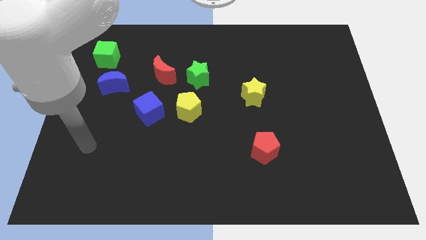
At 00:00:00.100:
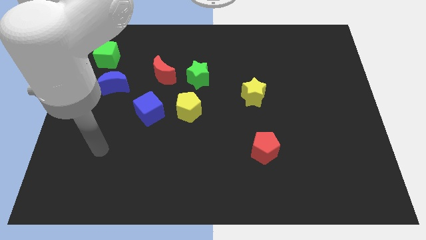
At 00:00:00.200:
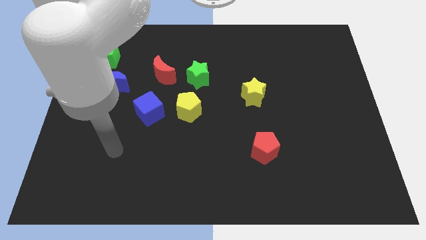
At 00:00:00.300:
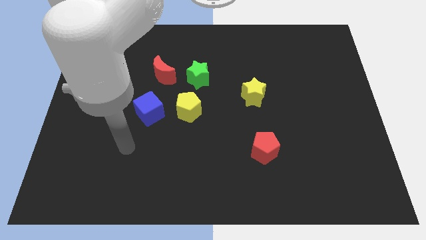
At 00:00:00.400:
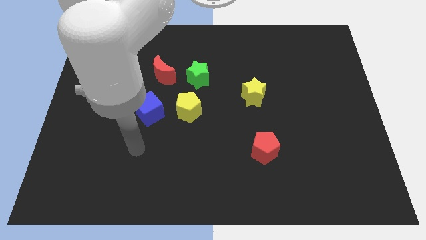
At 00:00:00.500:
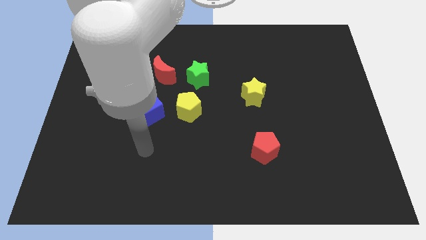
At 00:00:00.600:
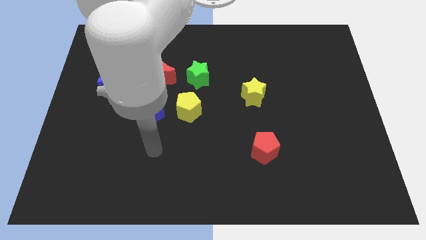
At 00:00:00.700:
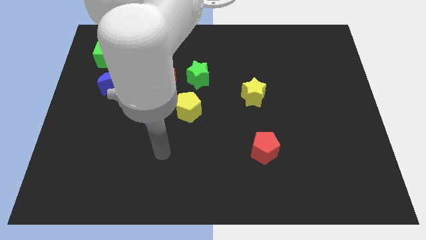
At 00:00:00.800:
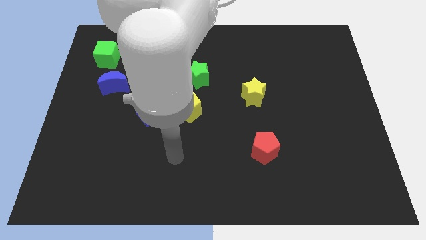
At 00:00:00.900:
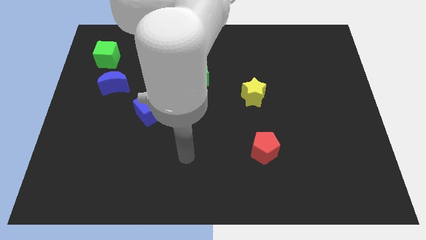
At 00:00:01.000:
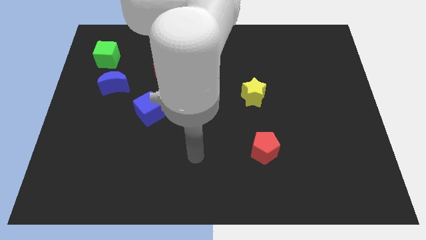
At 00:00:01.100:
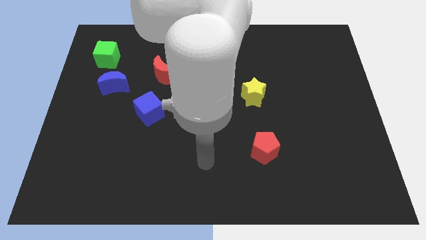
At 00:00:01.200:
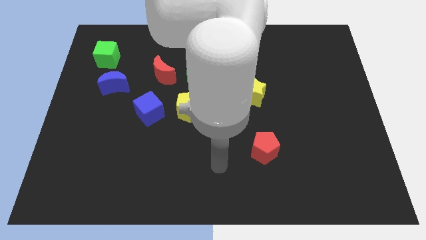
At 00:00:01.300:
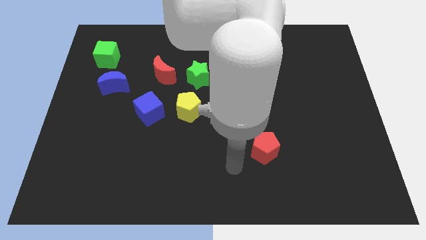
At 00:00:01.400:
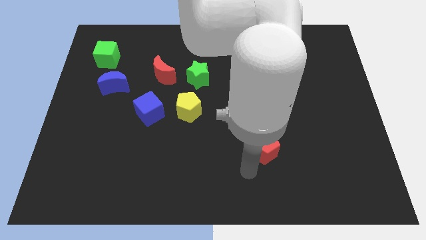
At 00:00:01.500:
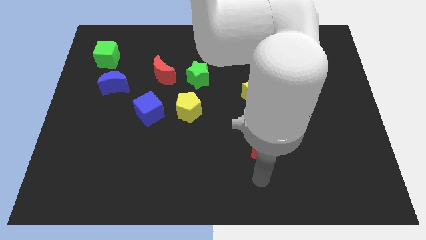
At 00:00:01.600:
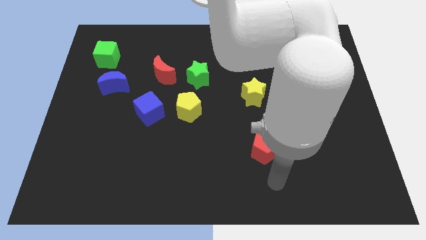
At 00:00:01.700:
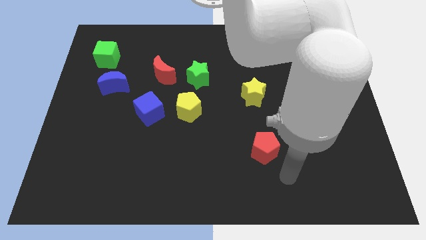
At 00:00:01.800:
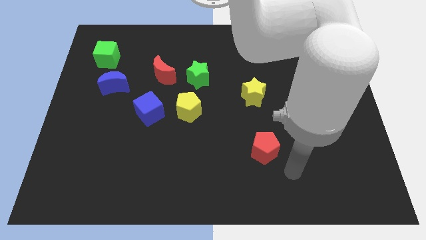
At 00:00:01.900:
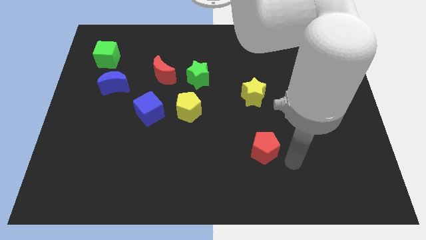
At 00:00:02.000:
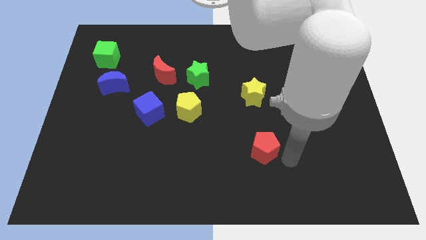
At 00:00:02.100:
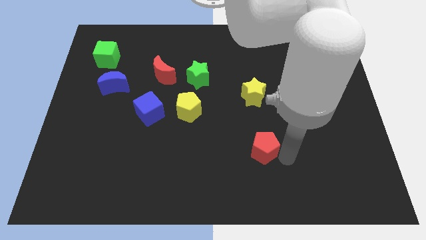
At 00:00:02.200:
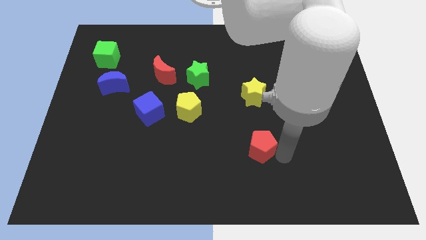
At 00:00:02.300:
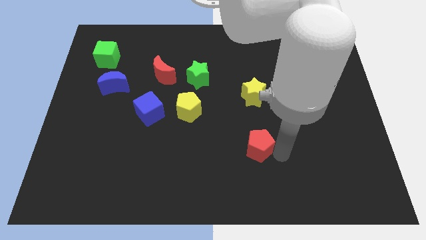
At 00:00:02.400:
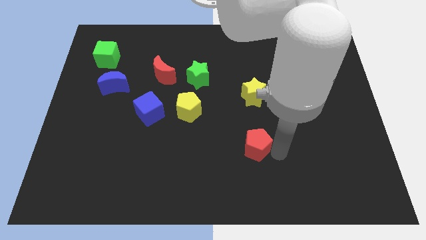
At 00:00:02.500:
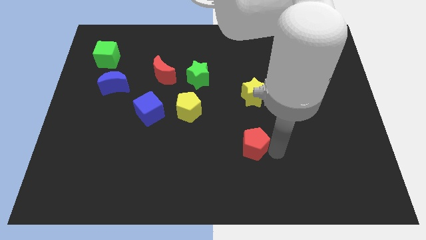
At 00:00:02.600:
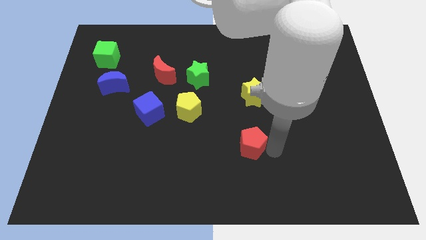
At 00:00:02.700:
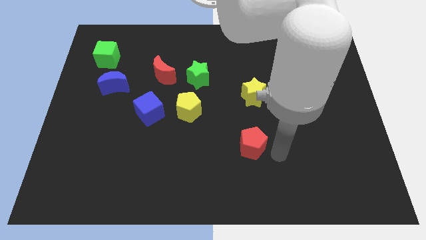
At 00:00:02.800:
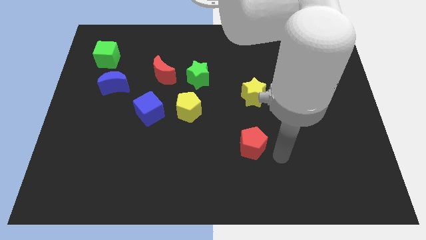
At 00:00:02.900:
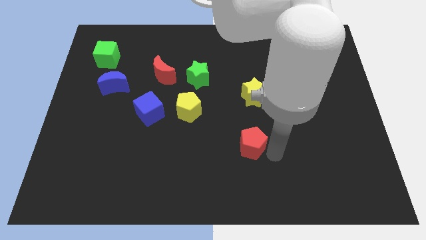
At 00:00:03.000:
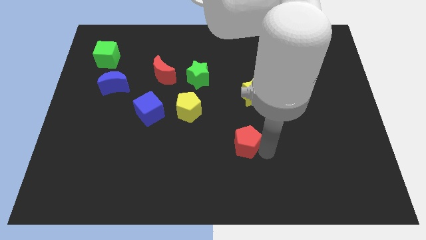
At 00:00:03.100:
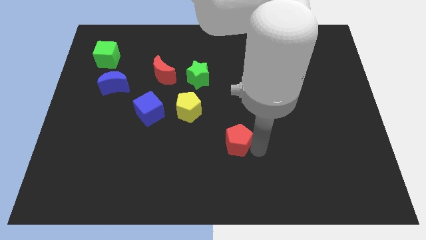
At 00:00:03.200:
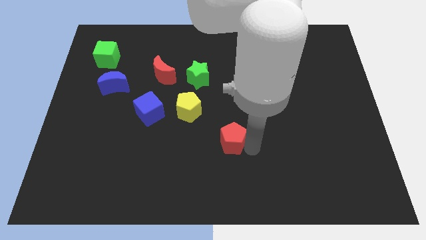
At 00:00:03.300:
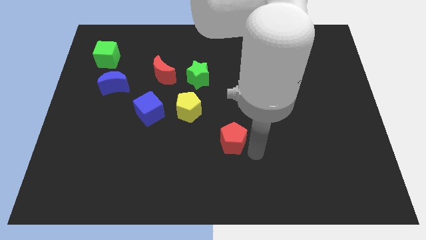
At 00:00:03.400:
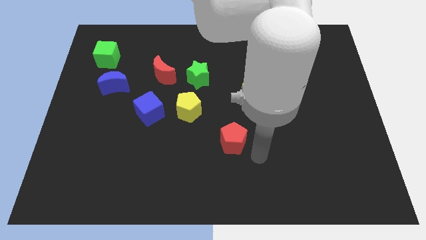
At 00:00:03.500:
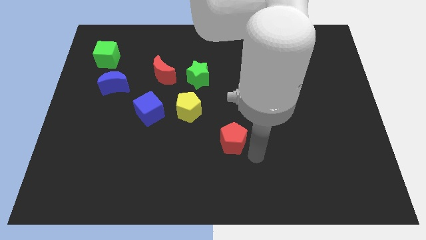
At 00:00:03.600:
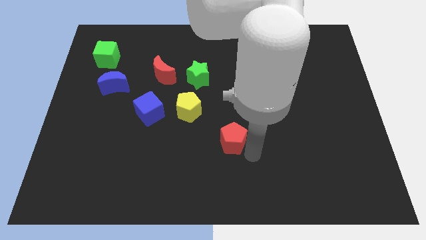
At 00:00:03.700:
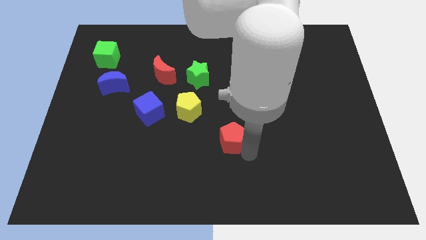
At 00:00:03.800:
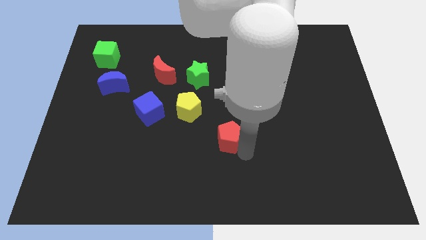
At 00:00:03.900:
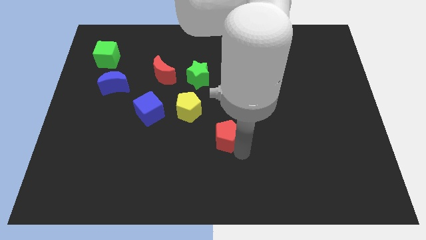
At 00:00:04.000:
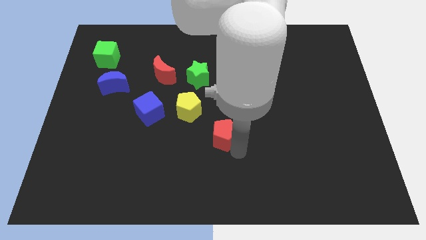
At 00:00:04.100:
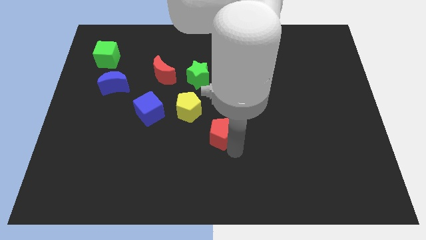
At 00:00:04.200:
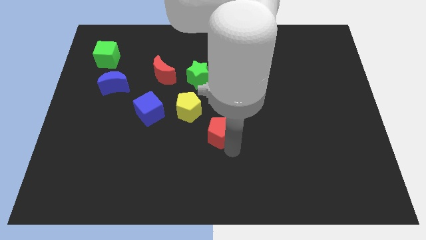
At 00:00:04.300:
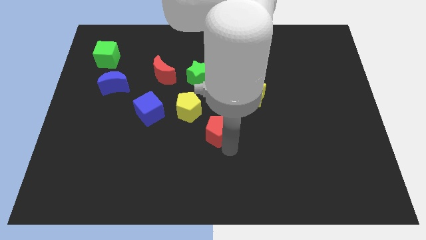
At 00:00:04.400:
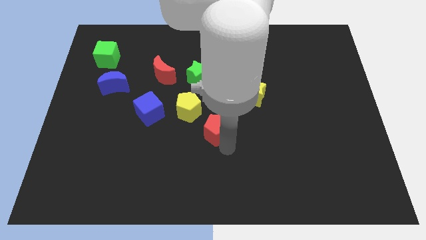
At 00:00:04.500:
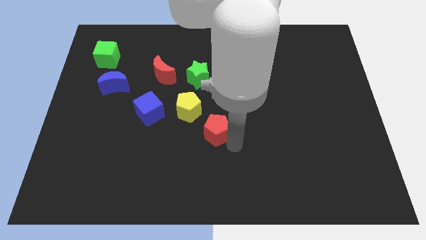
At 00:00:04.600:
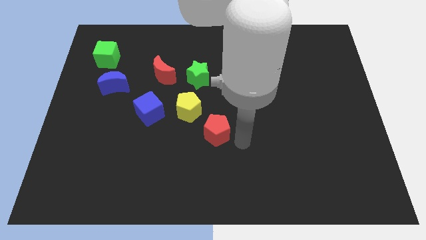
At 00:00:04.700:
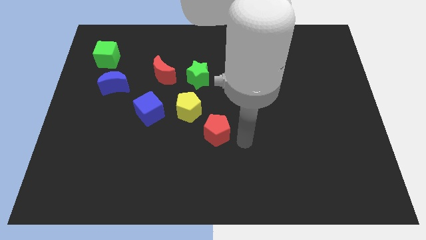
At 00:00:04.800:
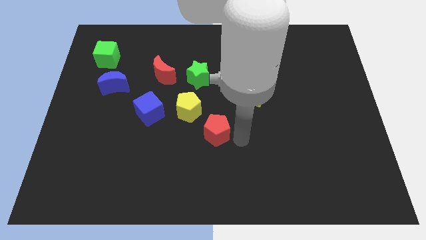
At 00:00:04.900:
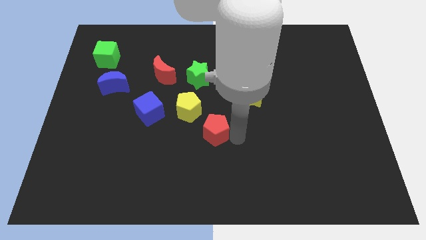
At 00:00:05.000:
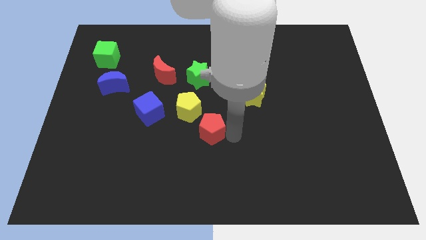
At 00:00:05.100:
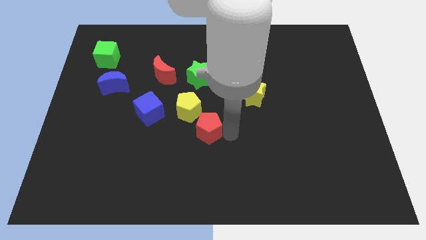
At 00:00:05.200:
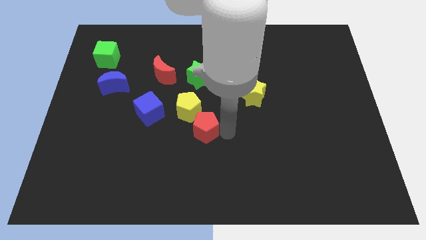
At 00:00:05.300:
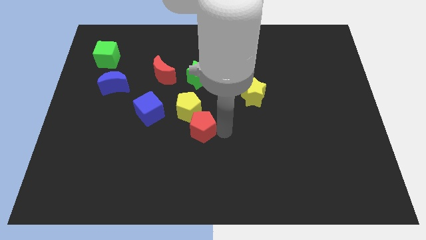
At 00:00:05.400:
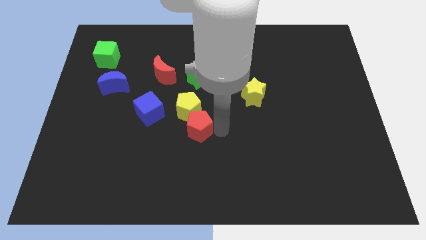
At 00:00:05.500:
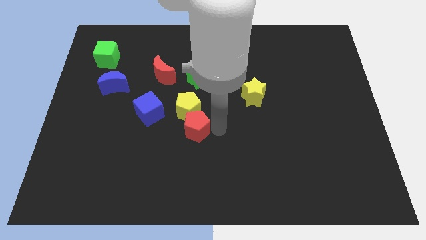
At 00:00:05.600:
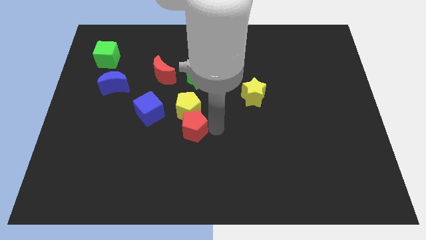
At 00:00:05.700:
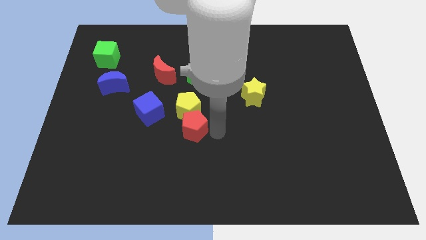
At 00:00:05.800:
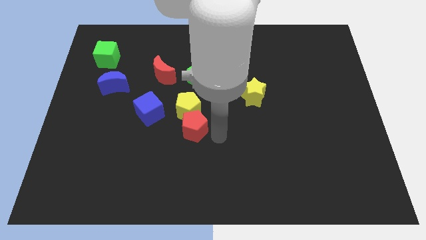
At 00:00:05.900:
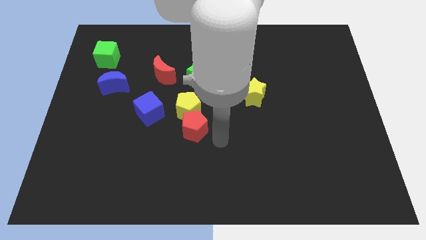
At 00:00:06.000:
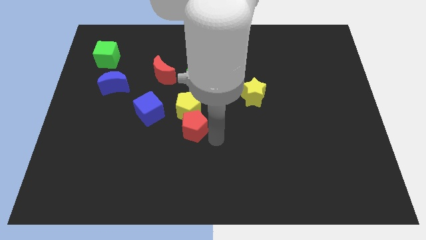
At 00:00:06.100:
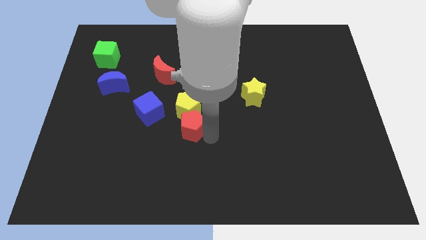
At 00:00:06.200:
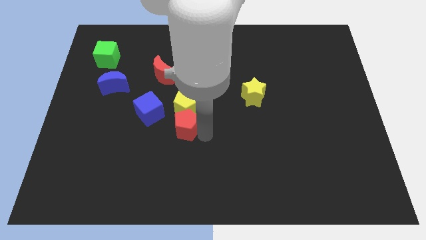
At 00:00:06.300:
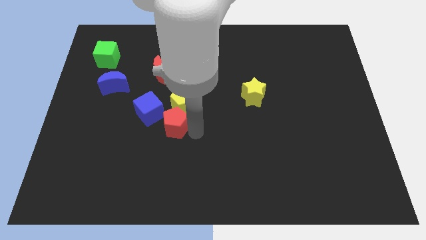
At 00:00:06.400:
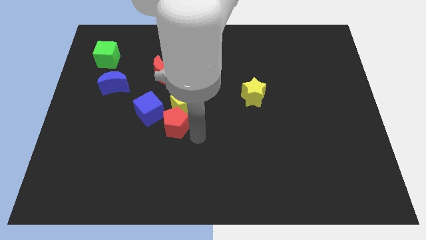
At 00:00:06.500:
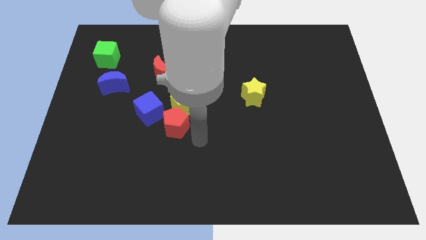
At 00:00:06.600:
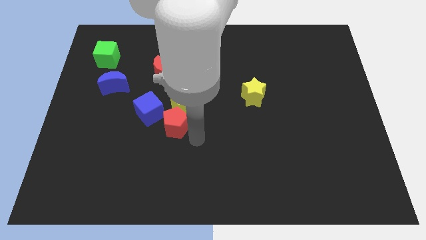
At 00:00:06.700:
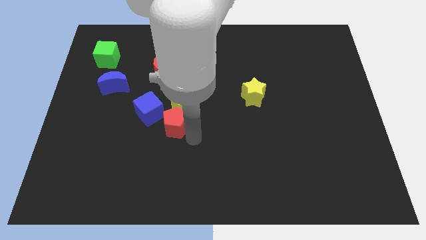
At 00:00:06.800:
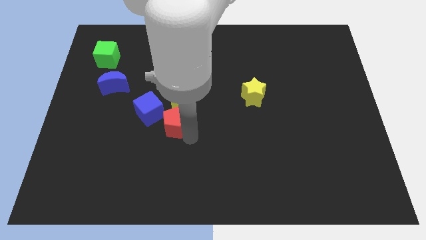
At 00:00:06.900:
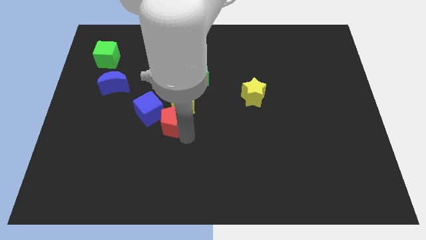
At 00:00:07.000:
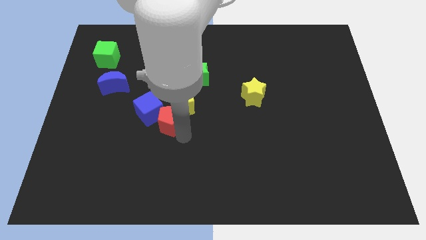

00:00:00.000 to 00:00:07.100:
slide the red pentagon close to the blue cube
